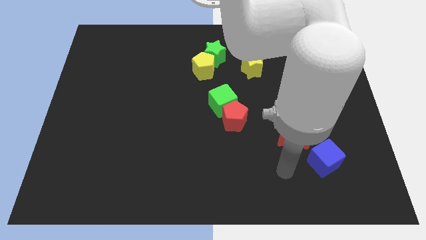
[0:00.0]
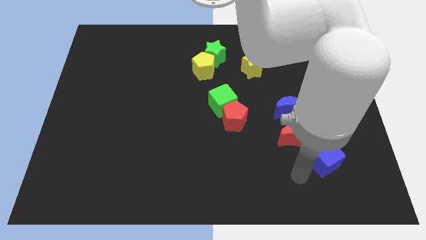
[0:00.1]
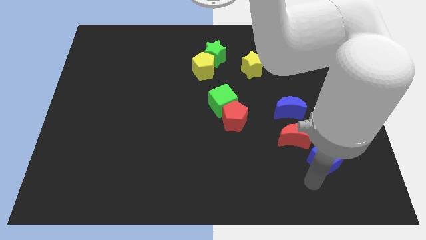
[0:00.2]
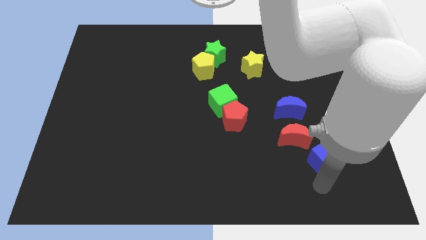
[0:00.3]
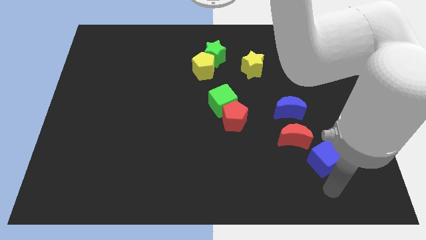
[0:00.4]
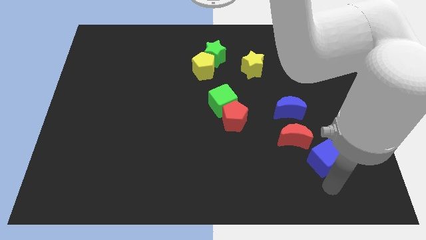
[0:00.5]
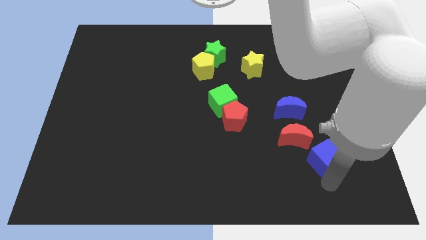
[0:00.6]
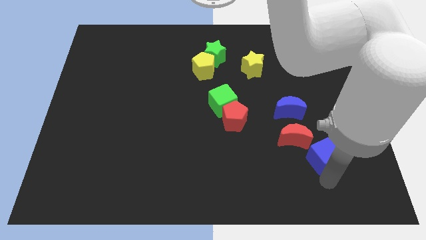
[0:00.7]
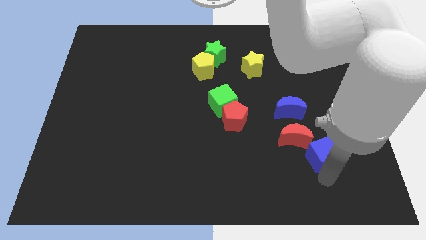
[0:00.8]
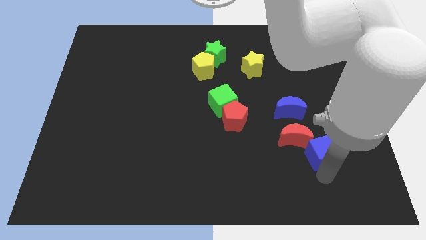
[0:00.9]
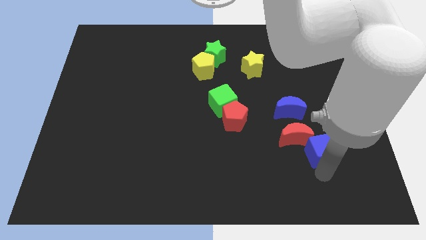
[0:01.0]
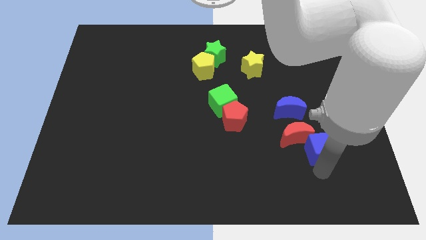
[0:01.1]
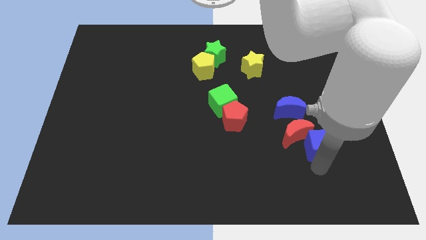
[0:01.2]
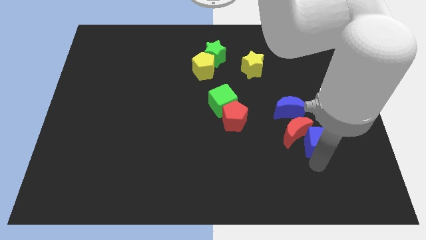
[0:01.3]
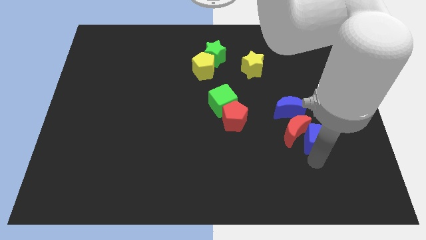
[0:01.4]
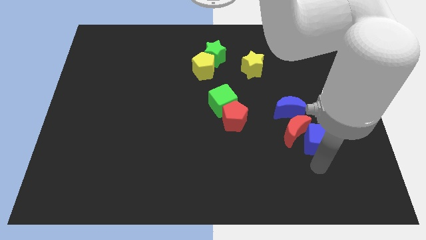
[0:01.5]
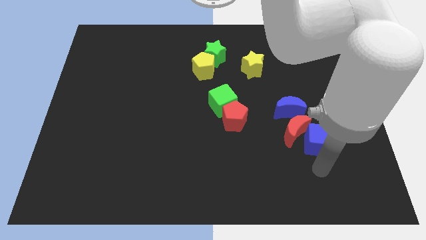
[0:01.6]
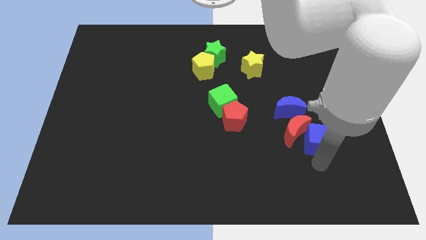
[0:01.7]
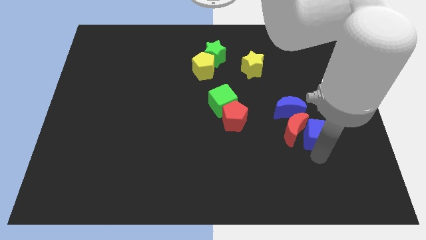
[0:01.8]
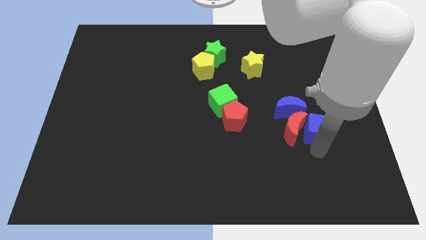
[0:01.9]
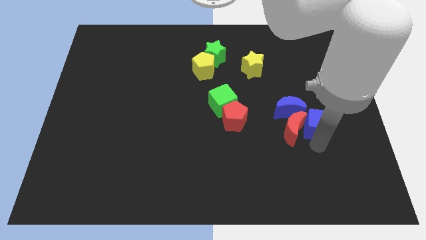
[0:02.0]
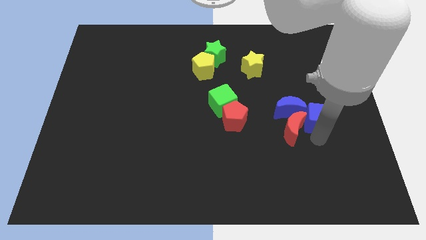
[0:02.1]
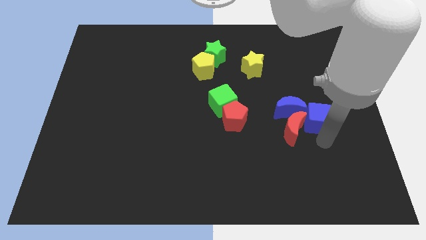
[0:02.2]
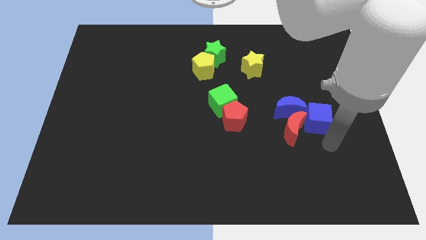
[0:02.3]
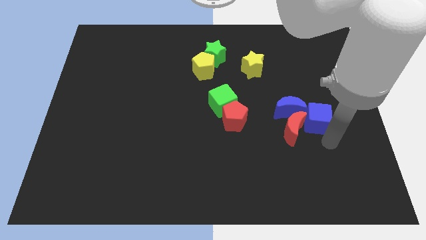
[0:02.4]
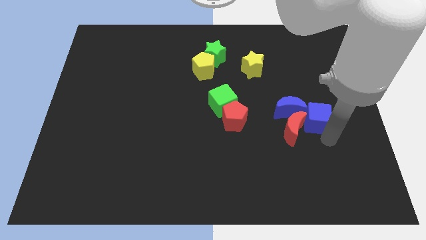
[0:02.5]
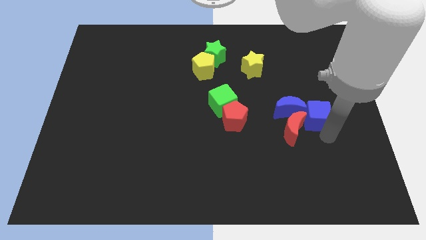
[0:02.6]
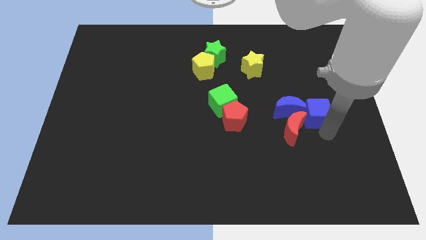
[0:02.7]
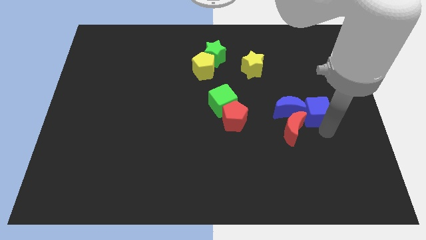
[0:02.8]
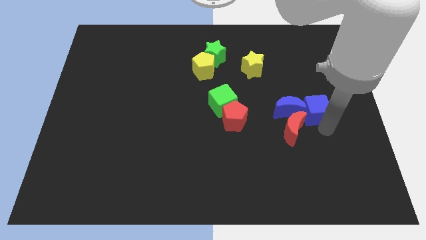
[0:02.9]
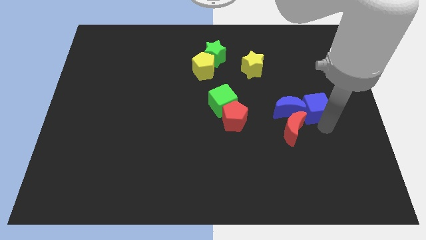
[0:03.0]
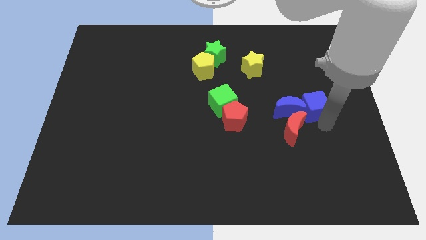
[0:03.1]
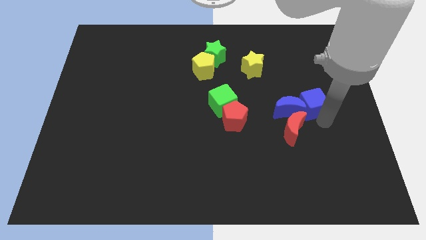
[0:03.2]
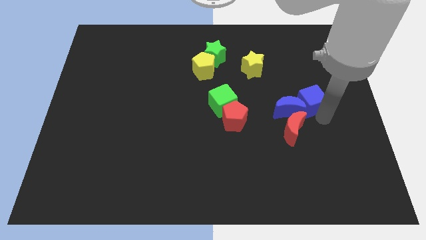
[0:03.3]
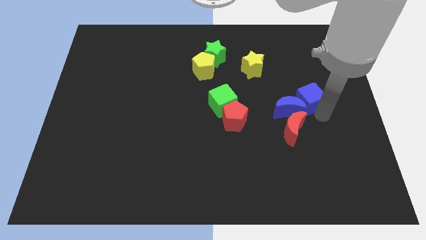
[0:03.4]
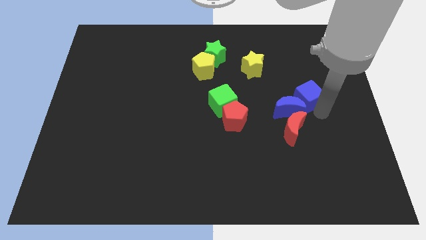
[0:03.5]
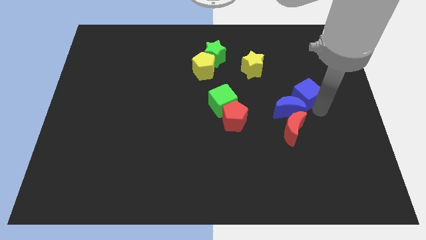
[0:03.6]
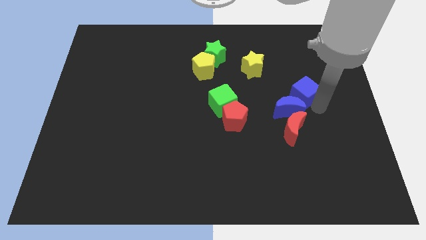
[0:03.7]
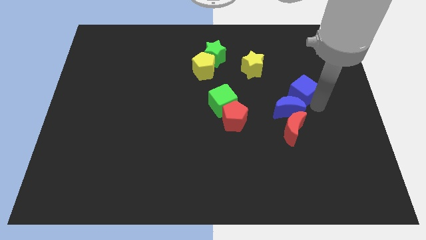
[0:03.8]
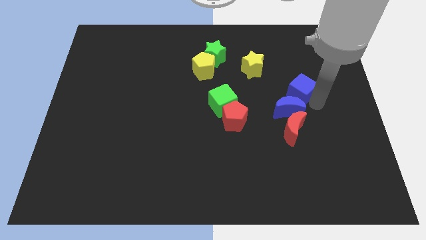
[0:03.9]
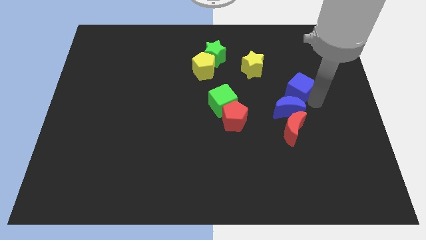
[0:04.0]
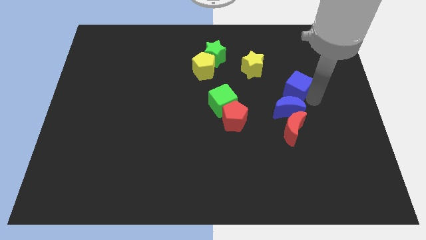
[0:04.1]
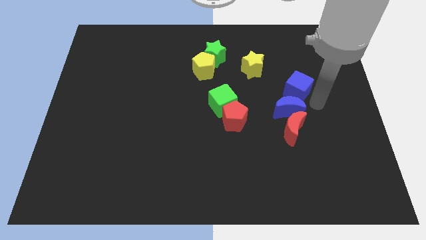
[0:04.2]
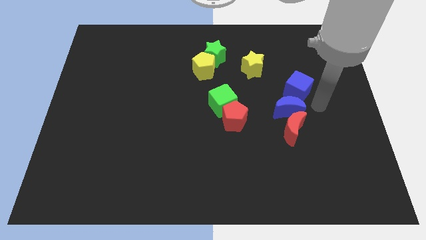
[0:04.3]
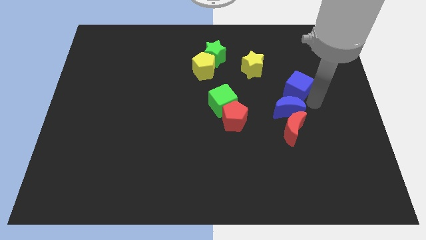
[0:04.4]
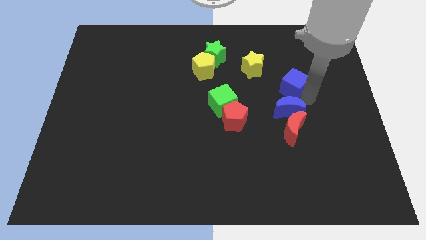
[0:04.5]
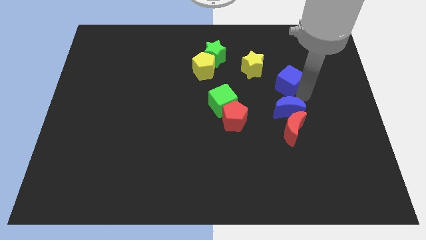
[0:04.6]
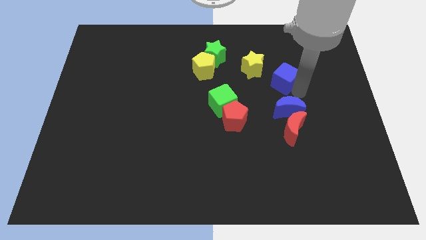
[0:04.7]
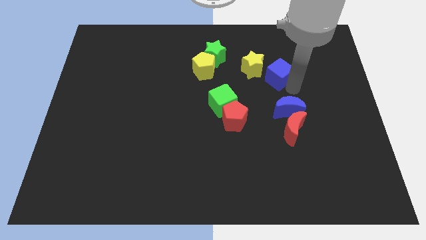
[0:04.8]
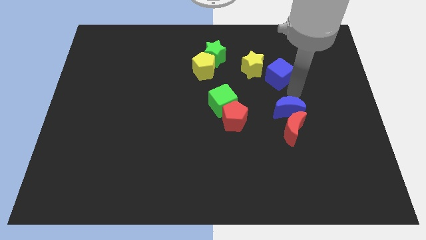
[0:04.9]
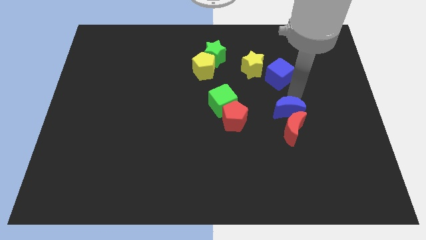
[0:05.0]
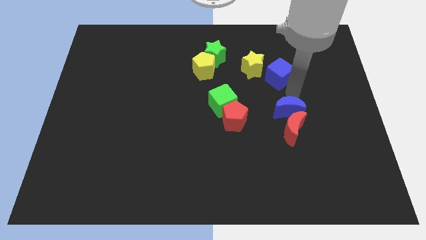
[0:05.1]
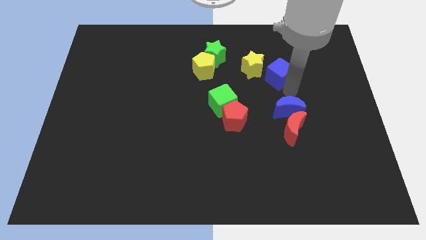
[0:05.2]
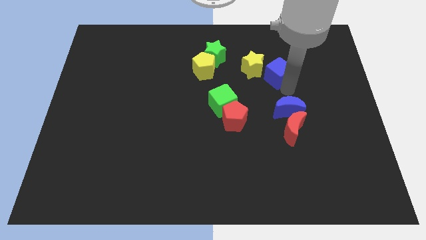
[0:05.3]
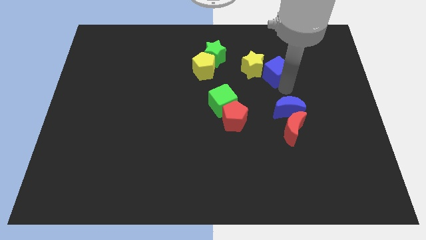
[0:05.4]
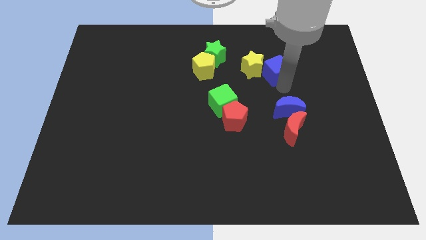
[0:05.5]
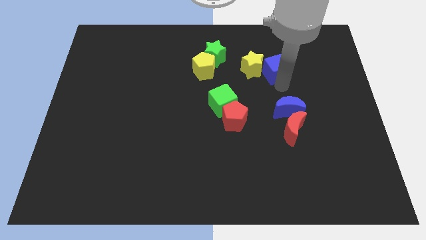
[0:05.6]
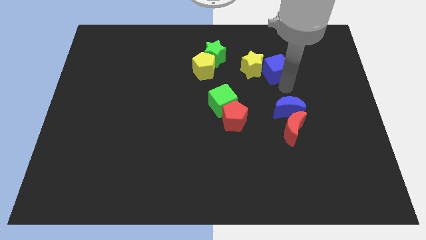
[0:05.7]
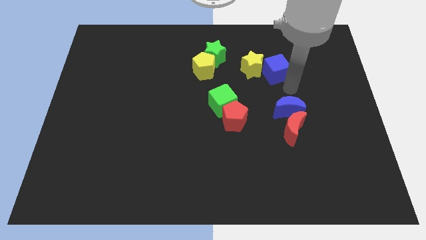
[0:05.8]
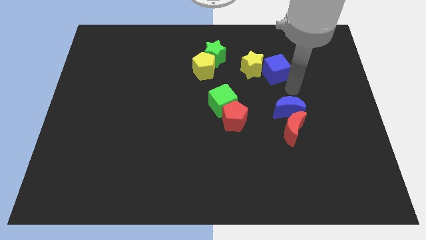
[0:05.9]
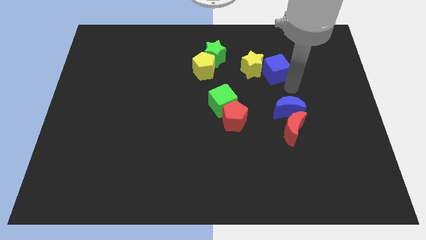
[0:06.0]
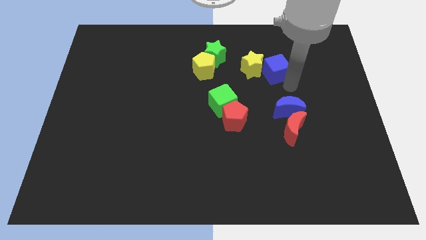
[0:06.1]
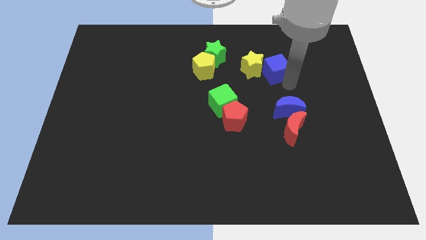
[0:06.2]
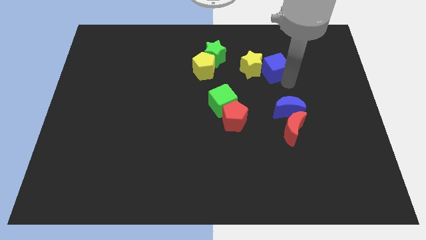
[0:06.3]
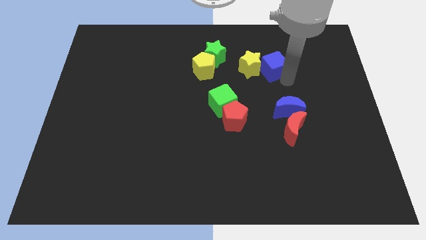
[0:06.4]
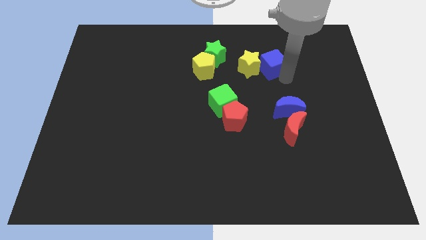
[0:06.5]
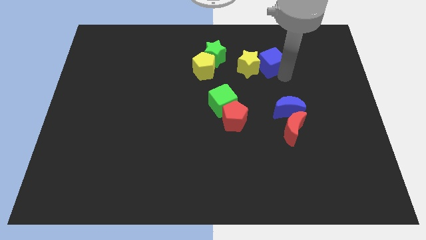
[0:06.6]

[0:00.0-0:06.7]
push the blue cube just right of the green star
